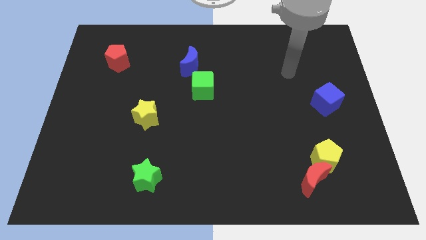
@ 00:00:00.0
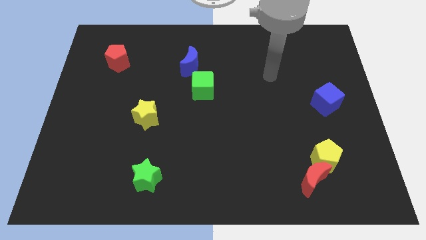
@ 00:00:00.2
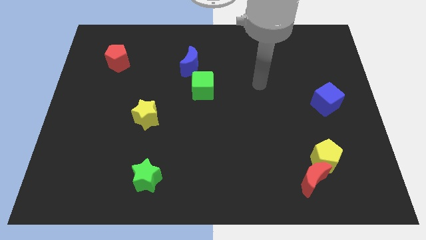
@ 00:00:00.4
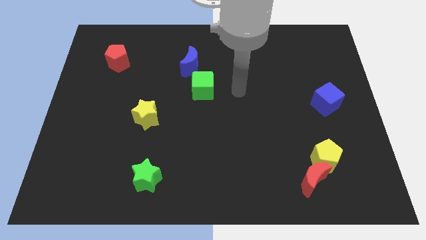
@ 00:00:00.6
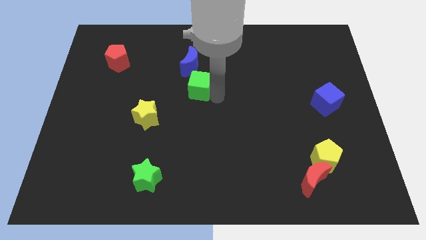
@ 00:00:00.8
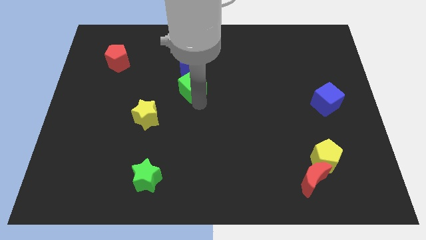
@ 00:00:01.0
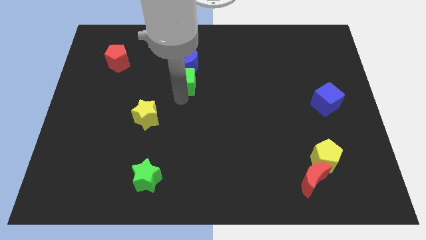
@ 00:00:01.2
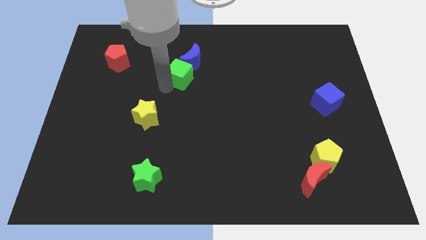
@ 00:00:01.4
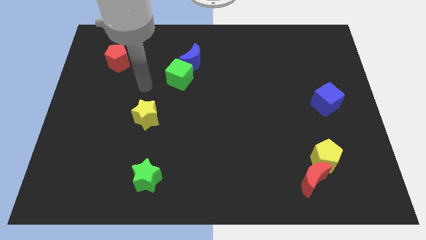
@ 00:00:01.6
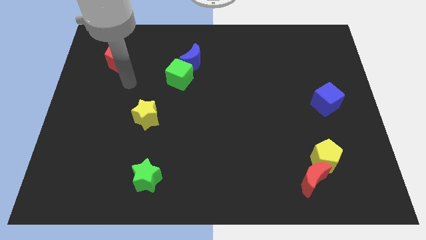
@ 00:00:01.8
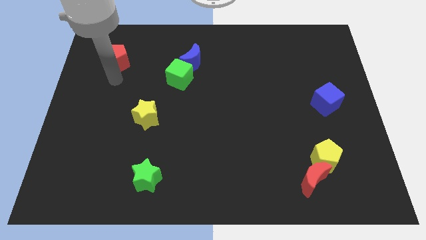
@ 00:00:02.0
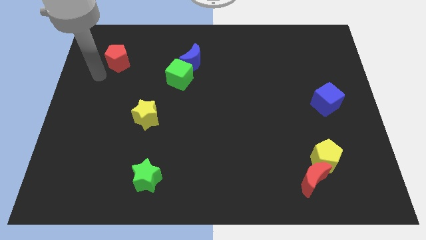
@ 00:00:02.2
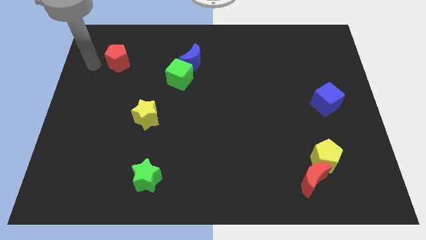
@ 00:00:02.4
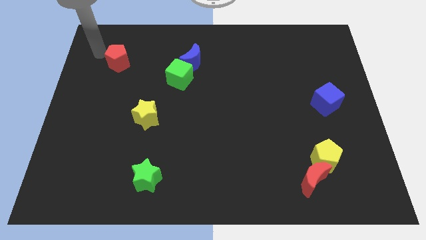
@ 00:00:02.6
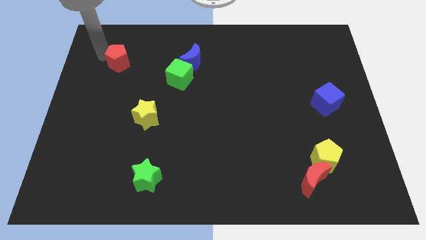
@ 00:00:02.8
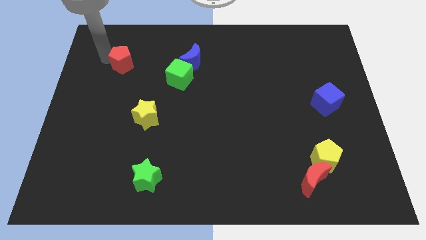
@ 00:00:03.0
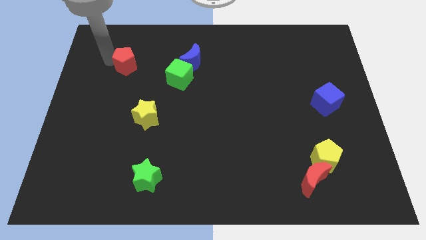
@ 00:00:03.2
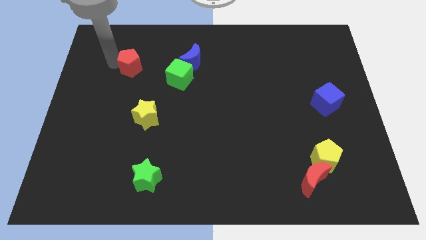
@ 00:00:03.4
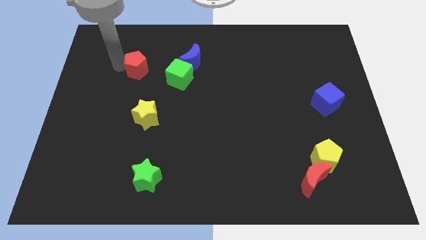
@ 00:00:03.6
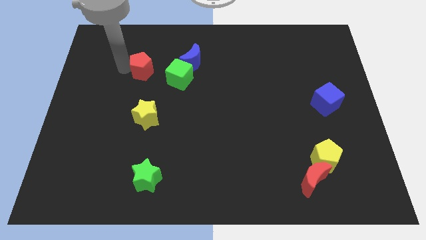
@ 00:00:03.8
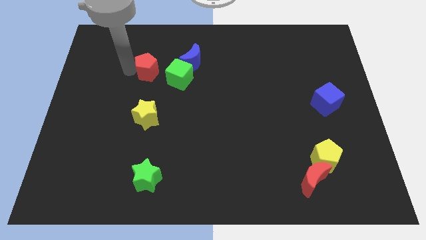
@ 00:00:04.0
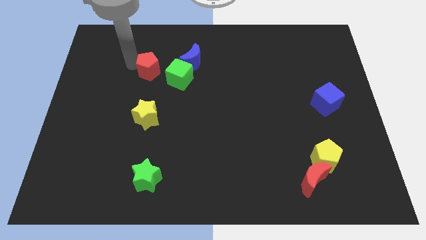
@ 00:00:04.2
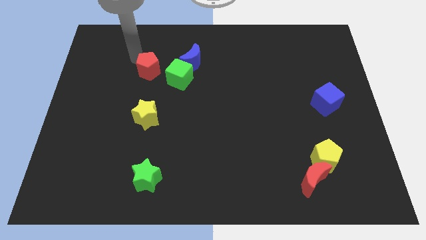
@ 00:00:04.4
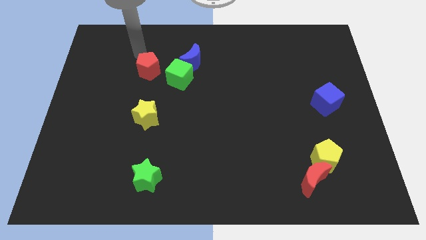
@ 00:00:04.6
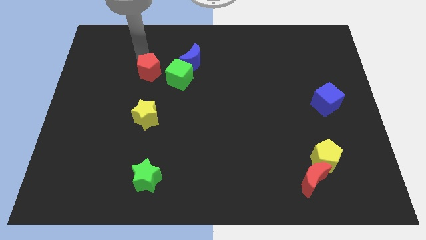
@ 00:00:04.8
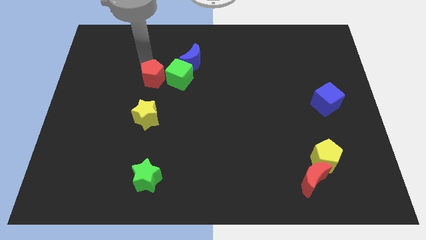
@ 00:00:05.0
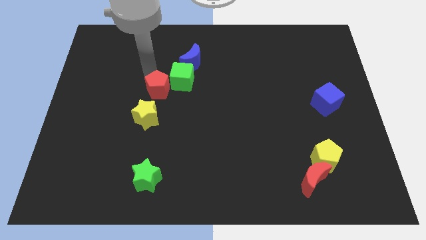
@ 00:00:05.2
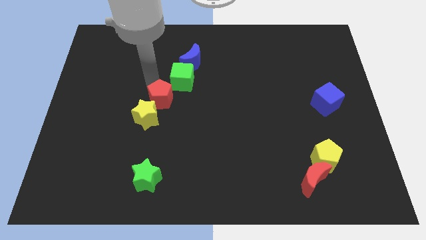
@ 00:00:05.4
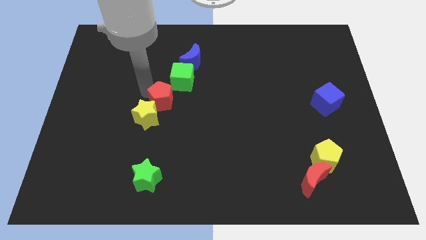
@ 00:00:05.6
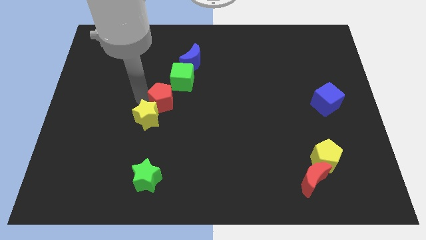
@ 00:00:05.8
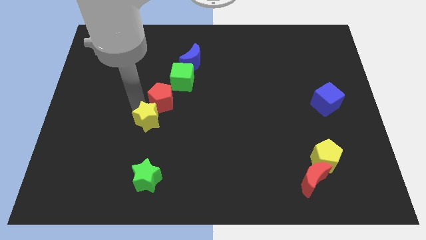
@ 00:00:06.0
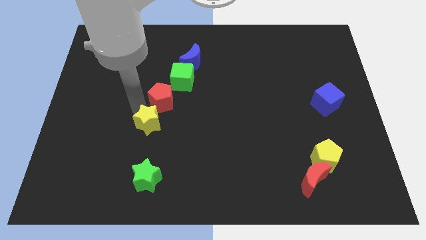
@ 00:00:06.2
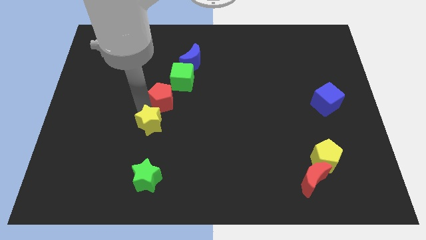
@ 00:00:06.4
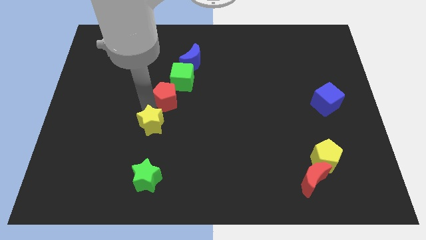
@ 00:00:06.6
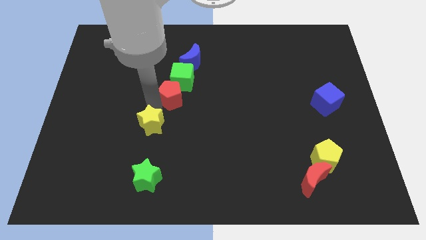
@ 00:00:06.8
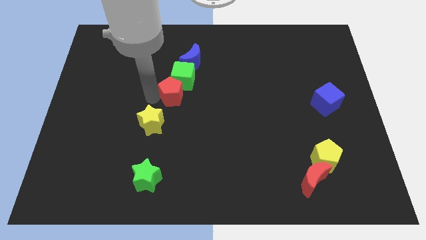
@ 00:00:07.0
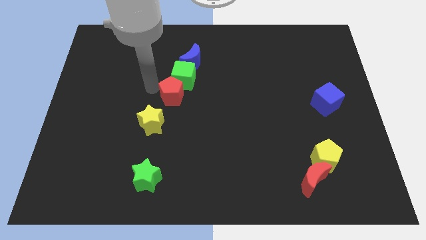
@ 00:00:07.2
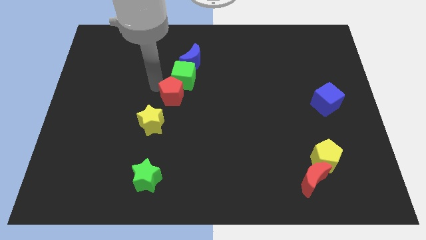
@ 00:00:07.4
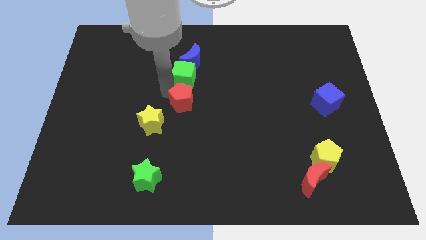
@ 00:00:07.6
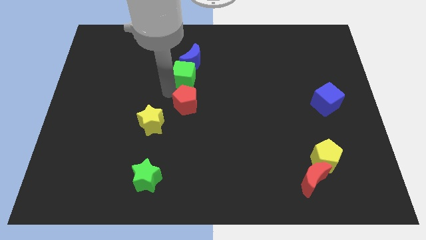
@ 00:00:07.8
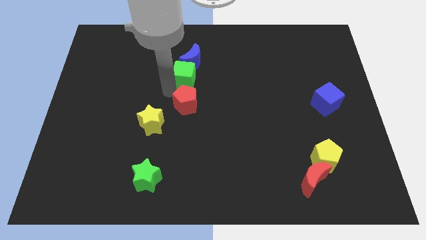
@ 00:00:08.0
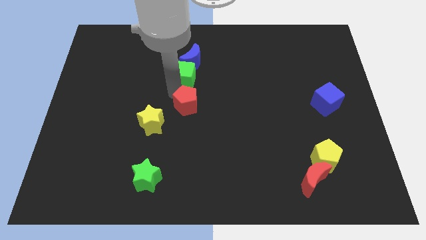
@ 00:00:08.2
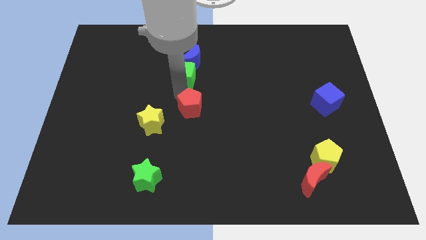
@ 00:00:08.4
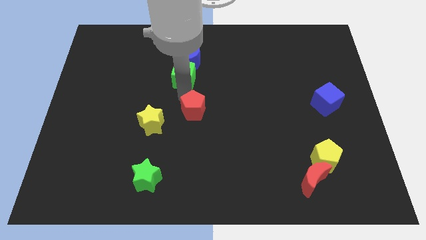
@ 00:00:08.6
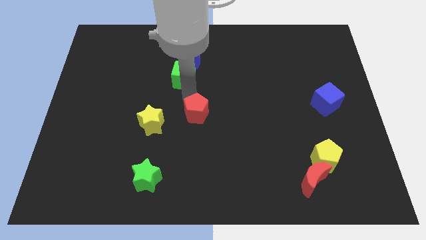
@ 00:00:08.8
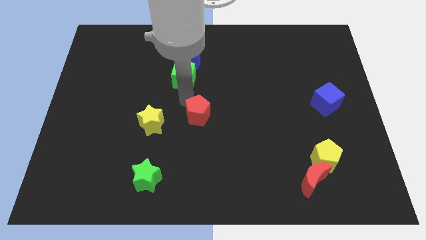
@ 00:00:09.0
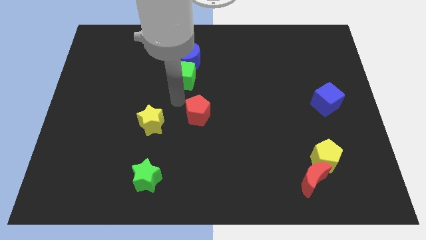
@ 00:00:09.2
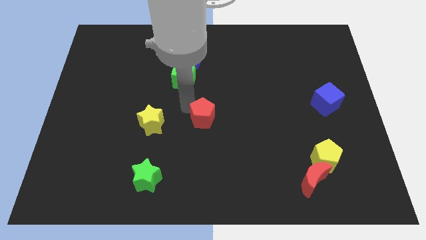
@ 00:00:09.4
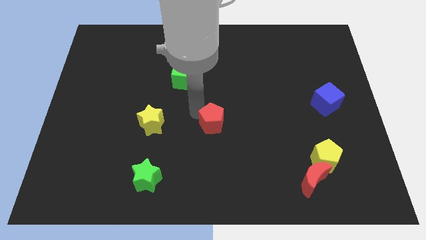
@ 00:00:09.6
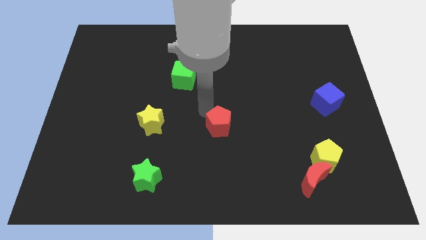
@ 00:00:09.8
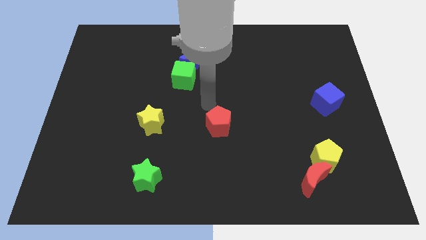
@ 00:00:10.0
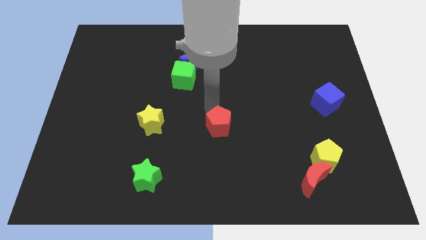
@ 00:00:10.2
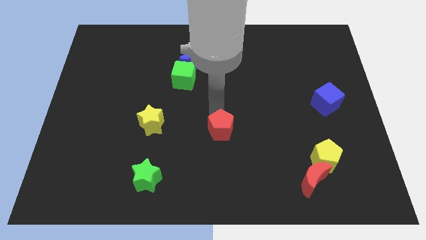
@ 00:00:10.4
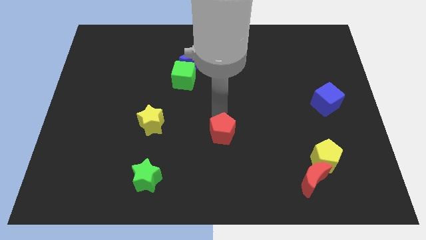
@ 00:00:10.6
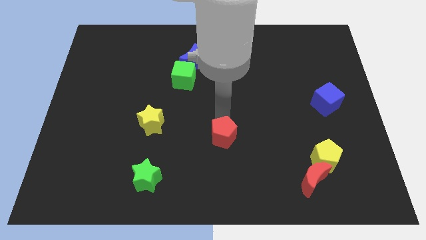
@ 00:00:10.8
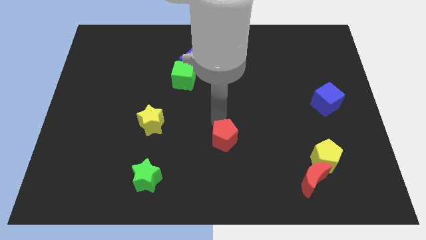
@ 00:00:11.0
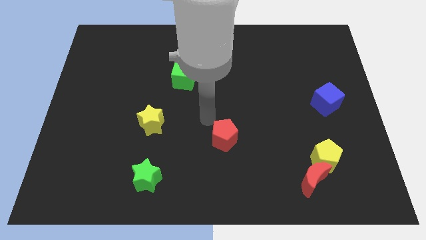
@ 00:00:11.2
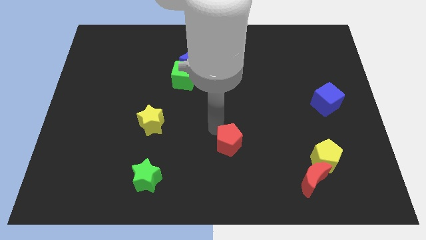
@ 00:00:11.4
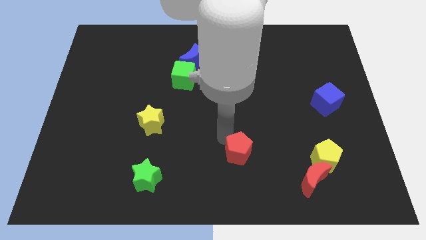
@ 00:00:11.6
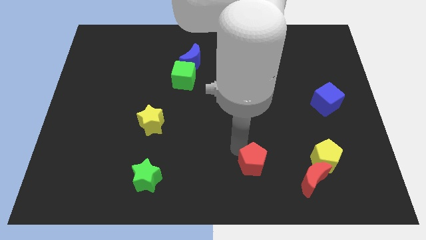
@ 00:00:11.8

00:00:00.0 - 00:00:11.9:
move the red pentagon just left of the red moon

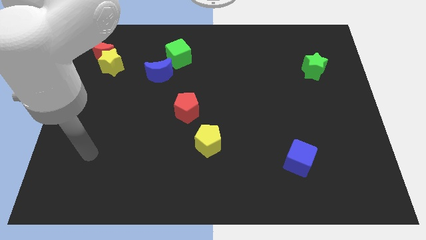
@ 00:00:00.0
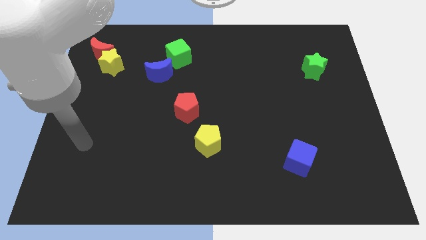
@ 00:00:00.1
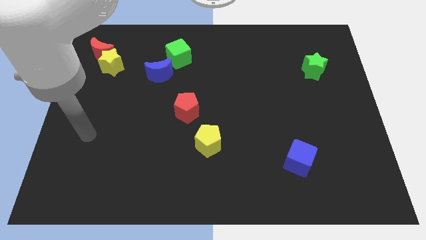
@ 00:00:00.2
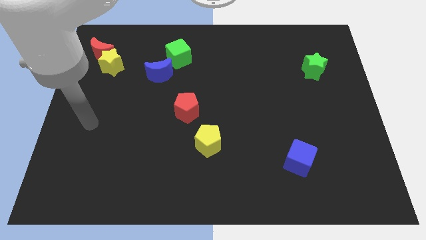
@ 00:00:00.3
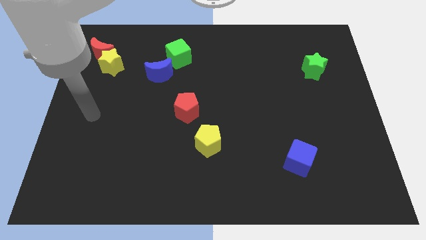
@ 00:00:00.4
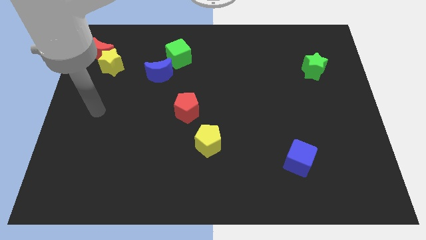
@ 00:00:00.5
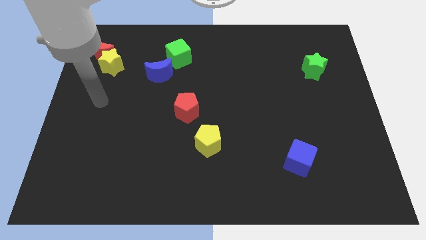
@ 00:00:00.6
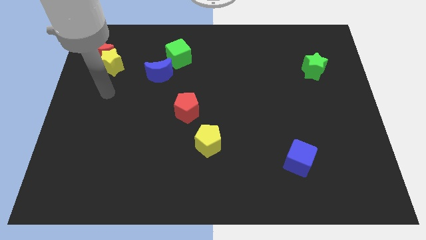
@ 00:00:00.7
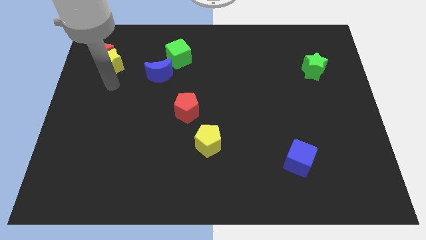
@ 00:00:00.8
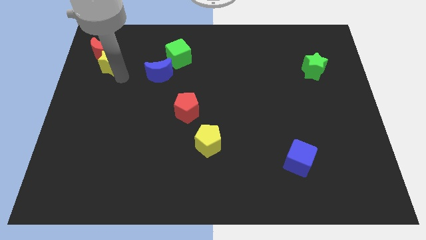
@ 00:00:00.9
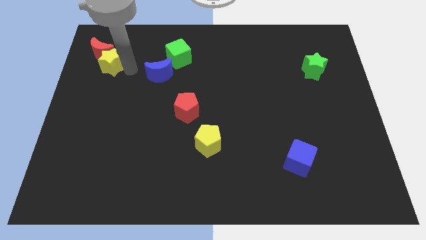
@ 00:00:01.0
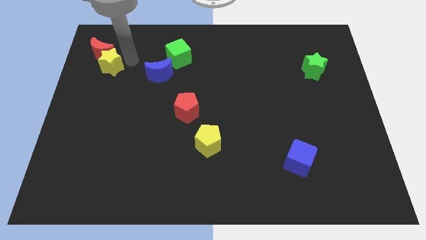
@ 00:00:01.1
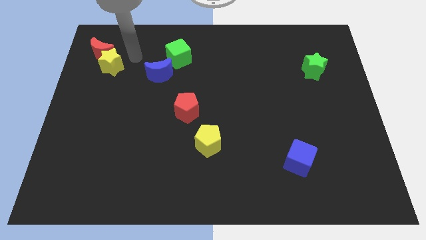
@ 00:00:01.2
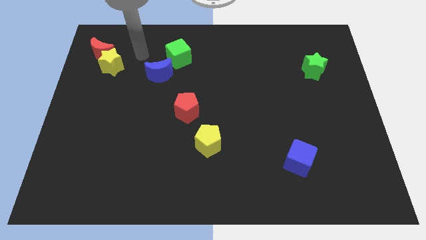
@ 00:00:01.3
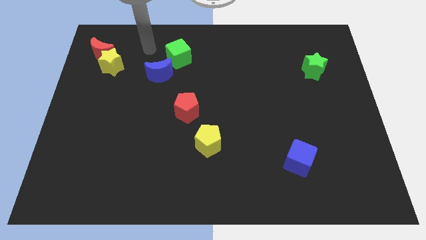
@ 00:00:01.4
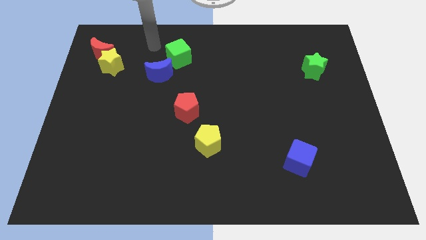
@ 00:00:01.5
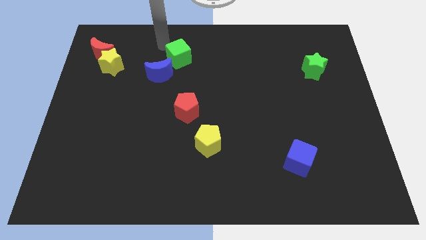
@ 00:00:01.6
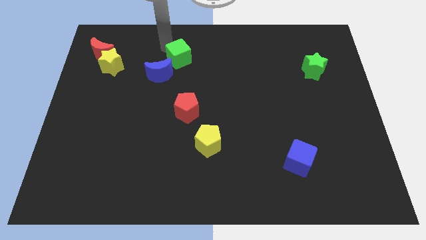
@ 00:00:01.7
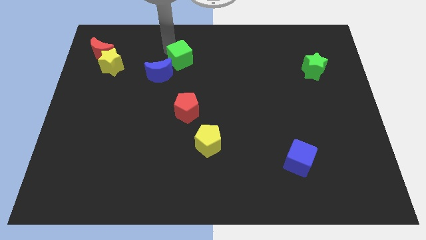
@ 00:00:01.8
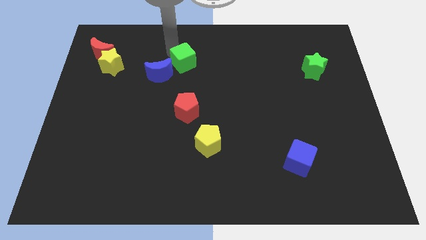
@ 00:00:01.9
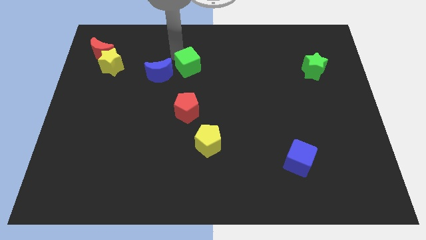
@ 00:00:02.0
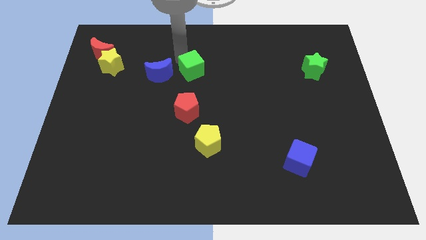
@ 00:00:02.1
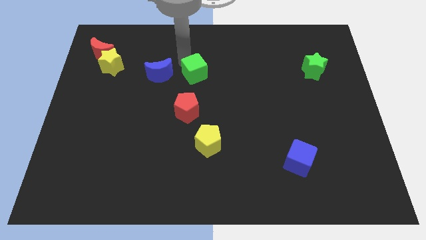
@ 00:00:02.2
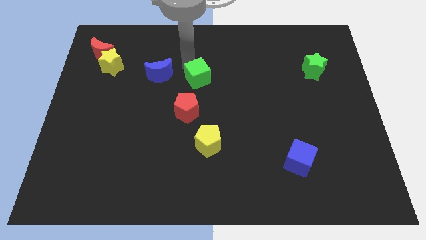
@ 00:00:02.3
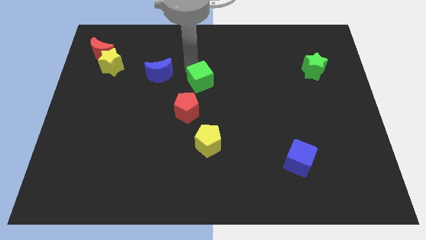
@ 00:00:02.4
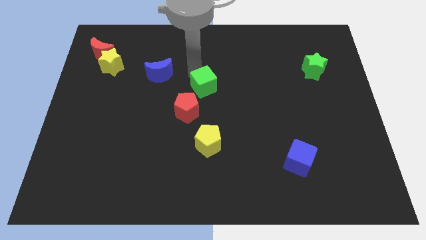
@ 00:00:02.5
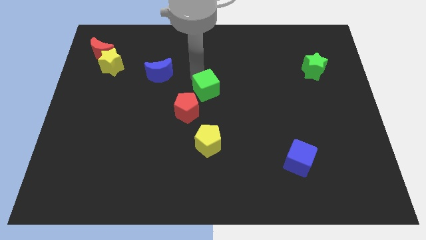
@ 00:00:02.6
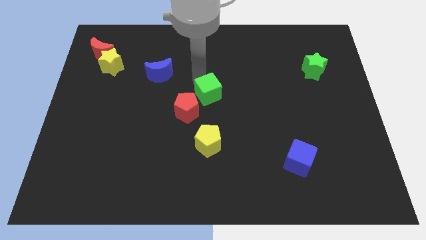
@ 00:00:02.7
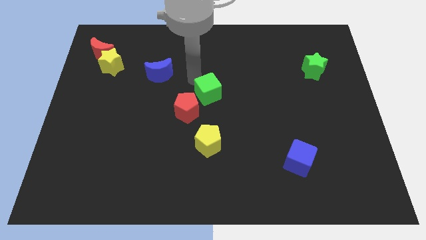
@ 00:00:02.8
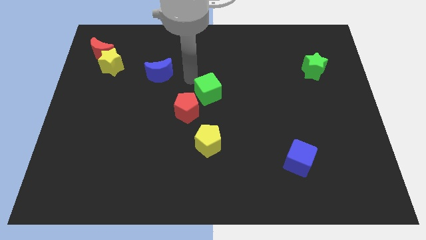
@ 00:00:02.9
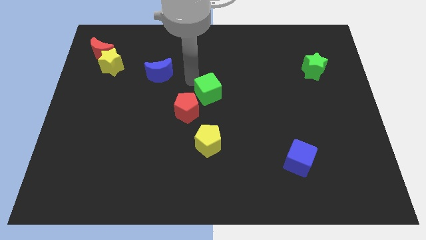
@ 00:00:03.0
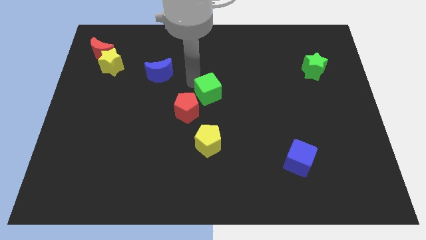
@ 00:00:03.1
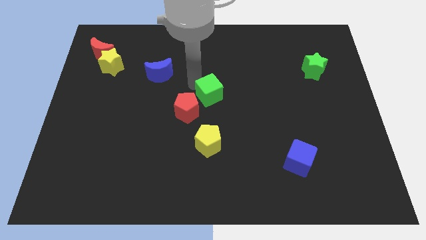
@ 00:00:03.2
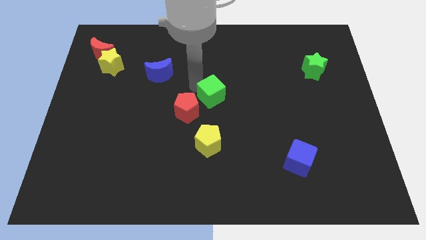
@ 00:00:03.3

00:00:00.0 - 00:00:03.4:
move the green cube to the right of the red pentagon
